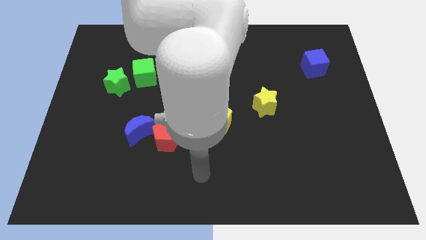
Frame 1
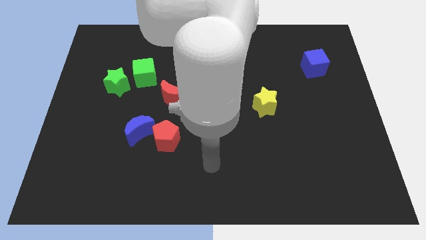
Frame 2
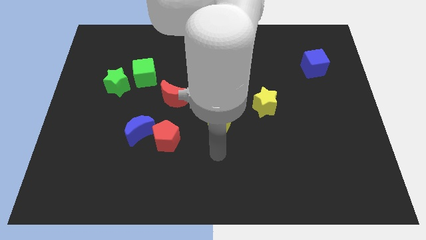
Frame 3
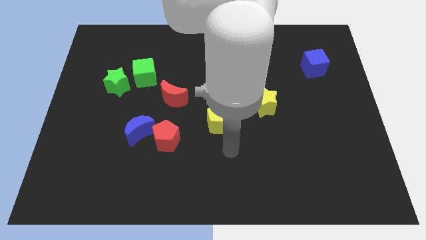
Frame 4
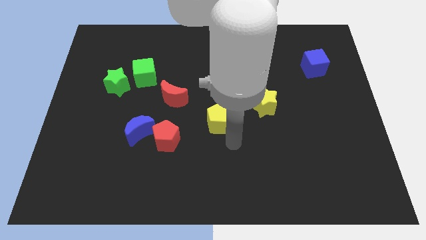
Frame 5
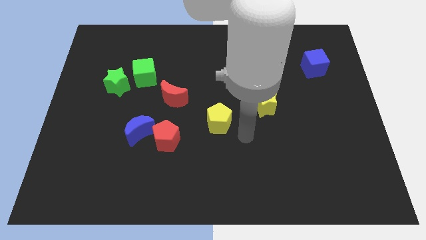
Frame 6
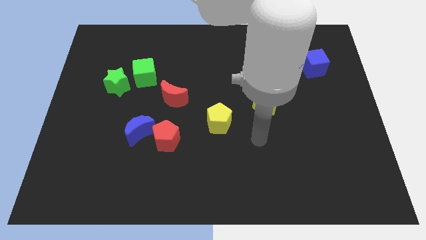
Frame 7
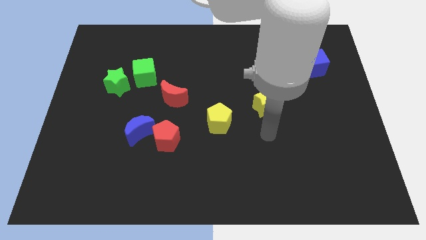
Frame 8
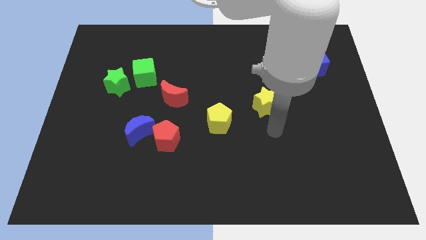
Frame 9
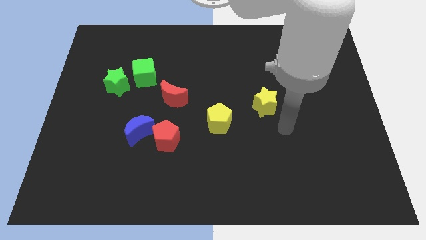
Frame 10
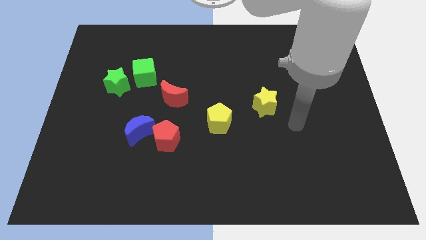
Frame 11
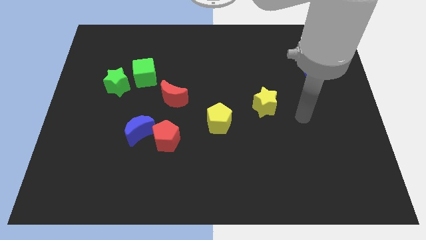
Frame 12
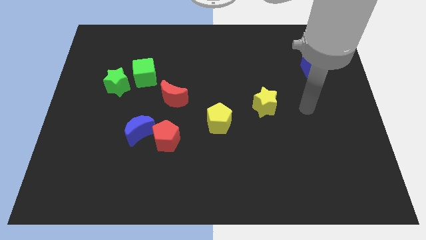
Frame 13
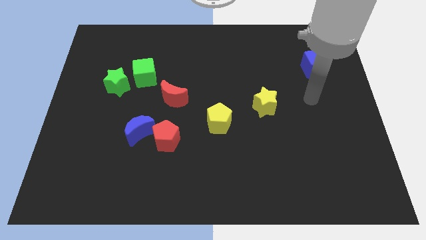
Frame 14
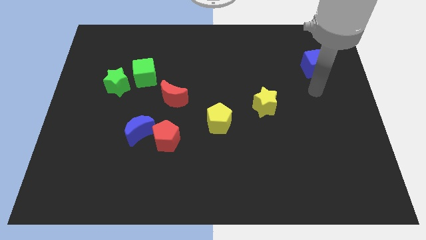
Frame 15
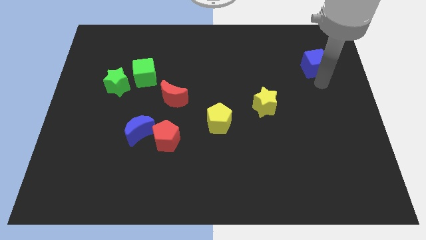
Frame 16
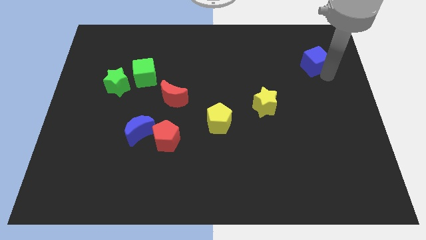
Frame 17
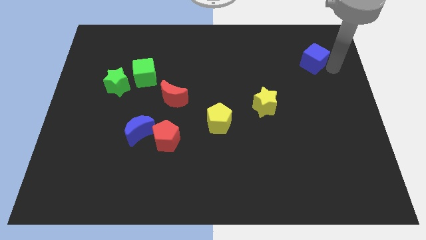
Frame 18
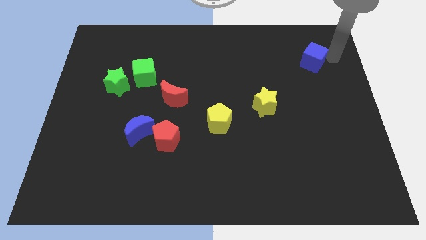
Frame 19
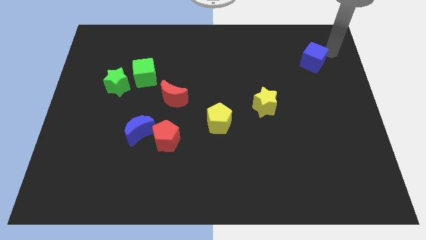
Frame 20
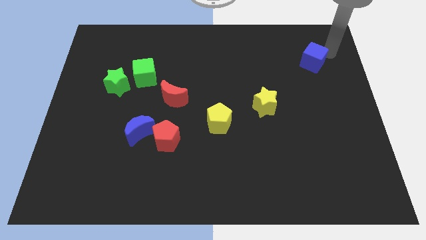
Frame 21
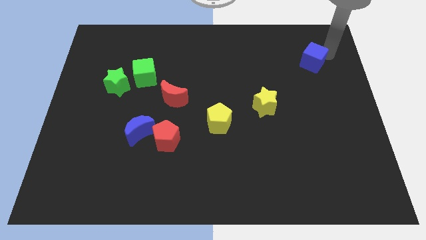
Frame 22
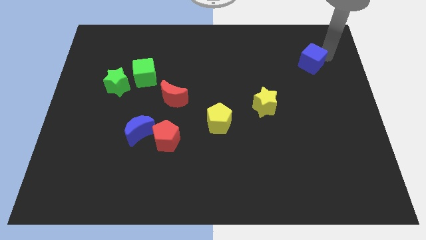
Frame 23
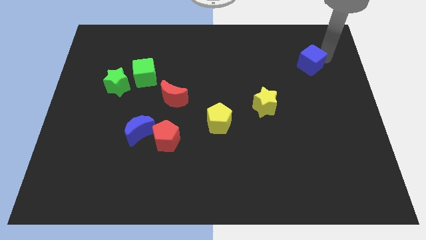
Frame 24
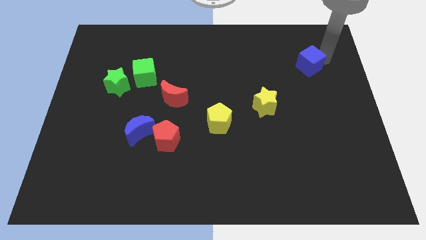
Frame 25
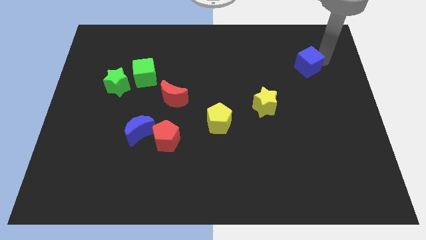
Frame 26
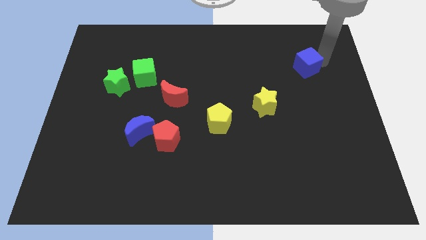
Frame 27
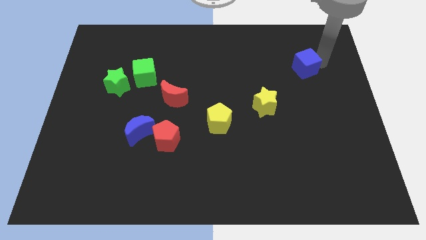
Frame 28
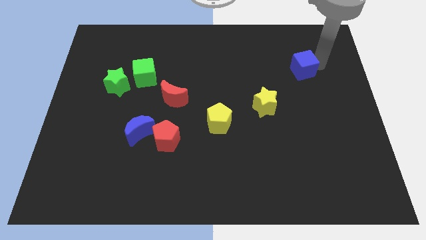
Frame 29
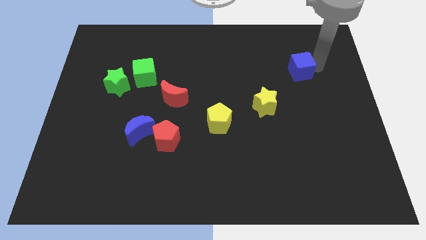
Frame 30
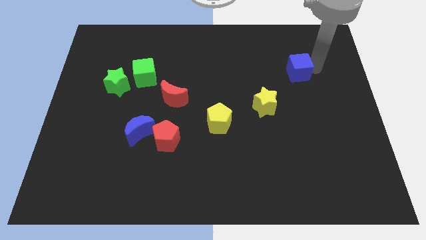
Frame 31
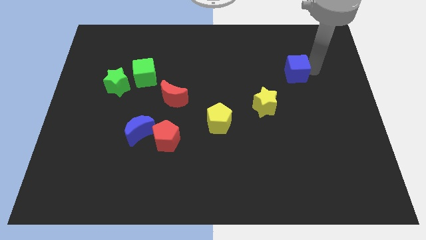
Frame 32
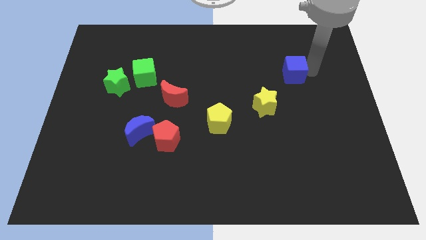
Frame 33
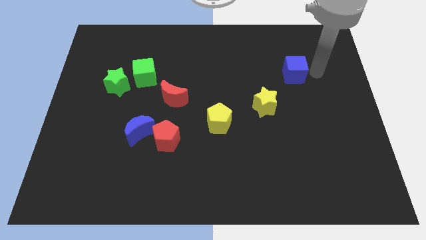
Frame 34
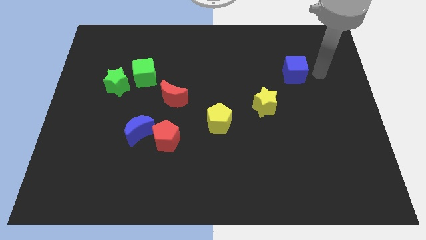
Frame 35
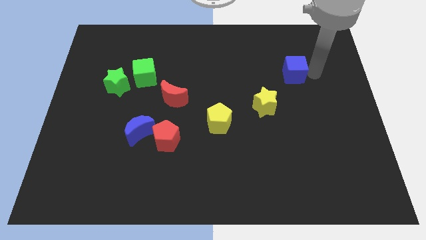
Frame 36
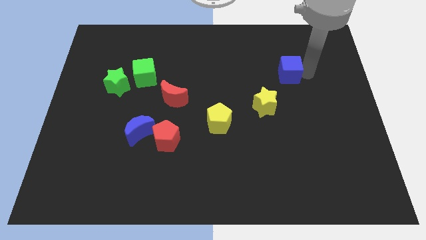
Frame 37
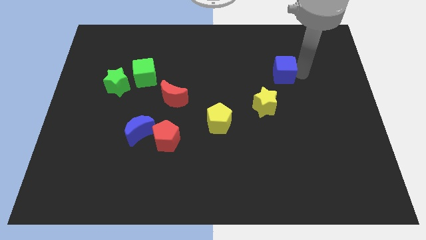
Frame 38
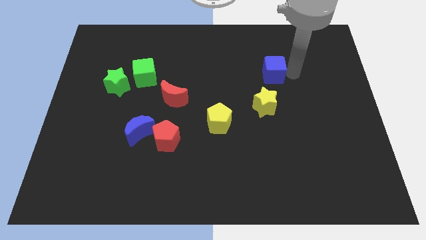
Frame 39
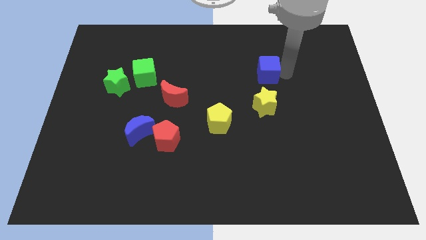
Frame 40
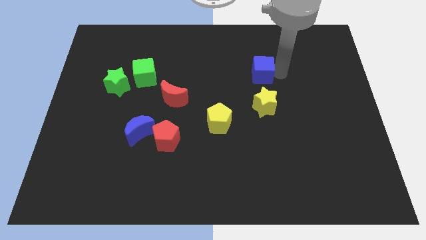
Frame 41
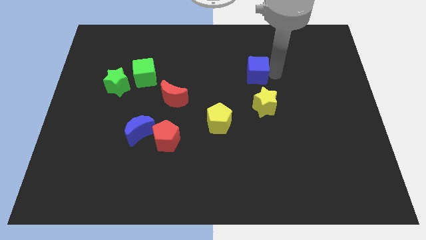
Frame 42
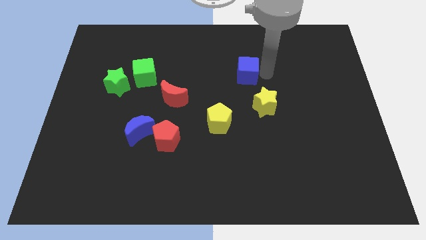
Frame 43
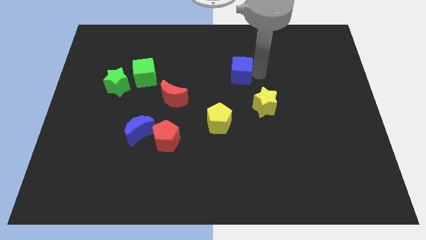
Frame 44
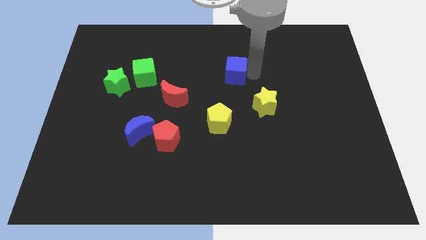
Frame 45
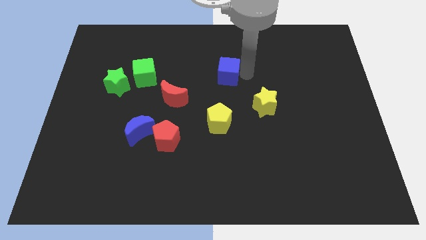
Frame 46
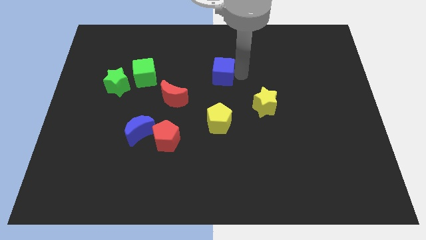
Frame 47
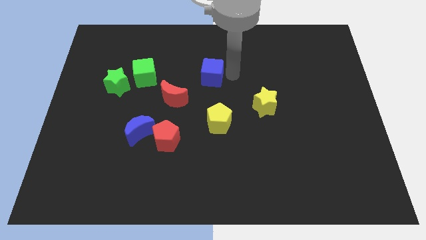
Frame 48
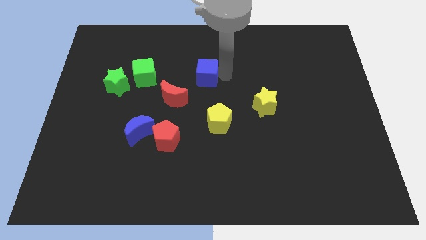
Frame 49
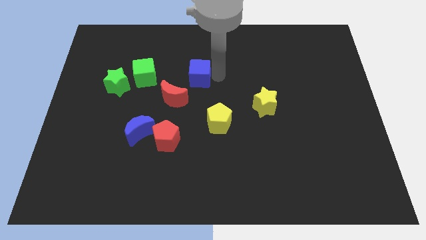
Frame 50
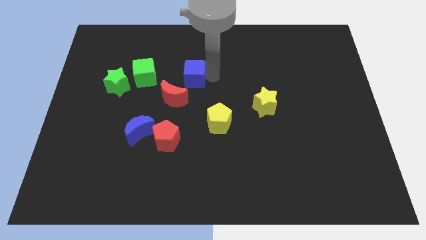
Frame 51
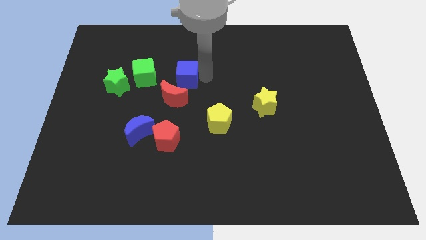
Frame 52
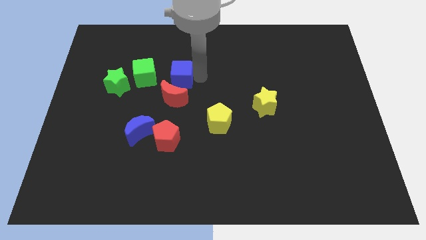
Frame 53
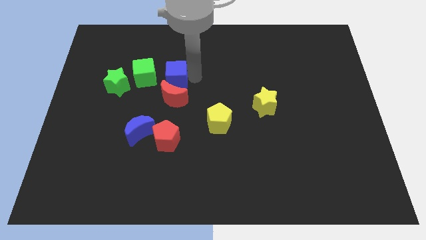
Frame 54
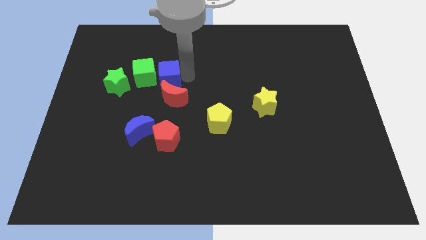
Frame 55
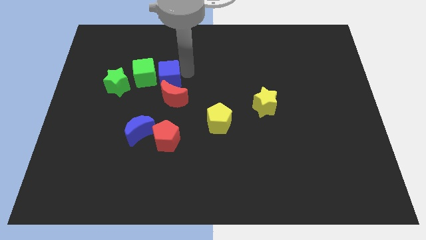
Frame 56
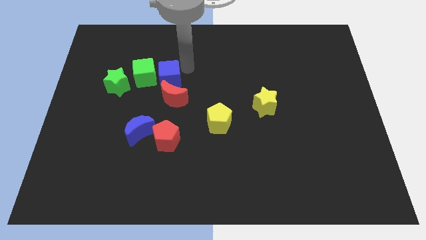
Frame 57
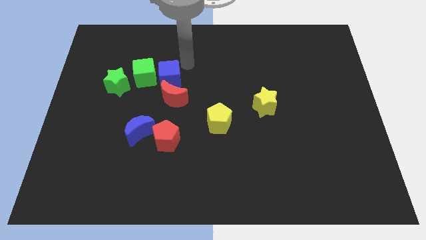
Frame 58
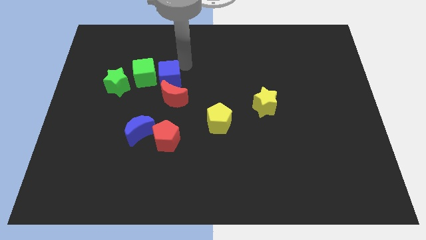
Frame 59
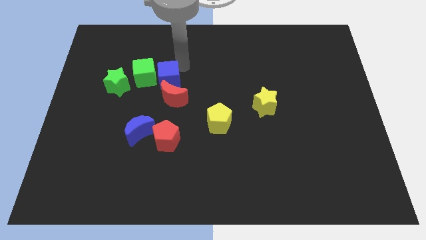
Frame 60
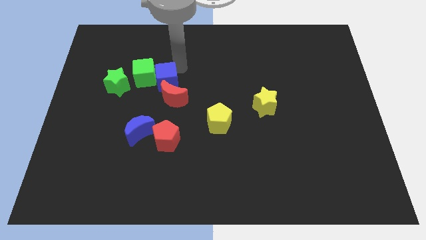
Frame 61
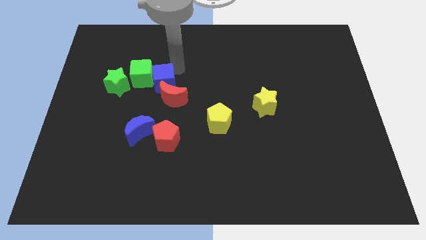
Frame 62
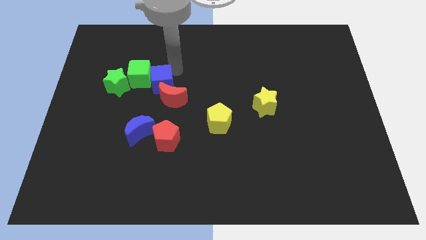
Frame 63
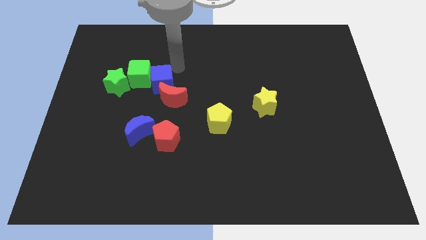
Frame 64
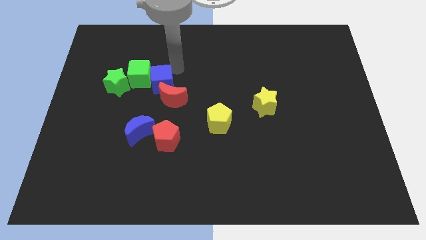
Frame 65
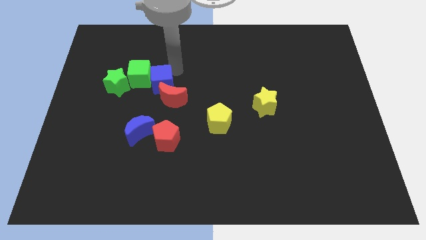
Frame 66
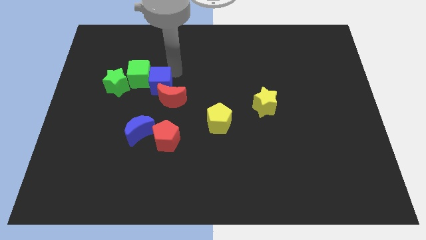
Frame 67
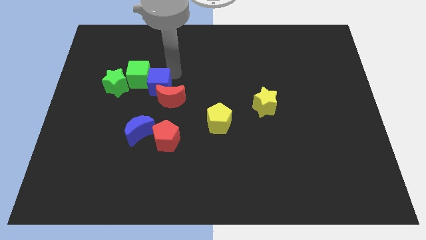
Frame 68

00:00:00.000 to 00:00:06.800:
slide the blue cube left of the red moon
